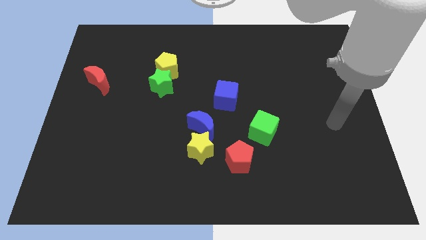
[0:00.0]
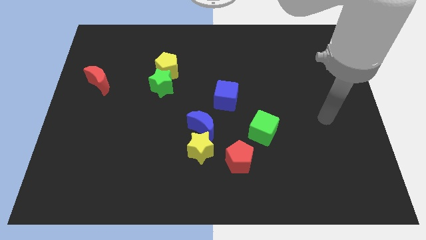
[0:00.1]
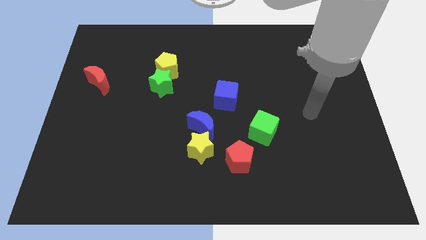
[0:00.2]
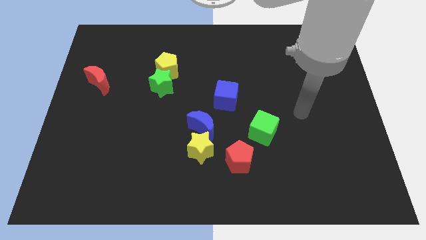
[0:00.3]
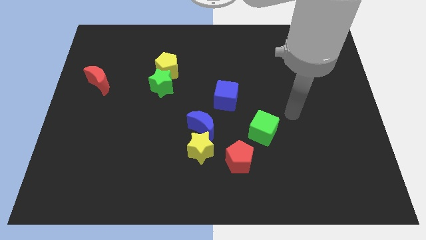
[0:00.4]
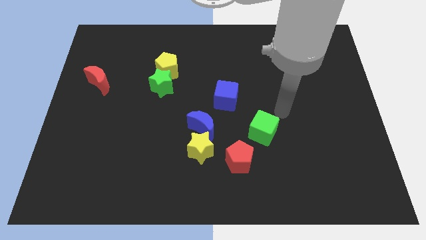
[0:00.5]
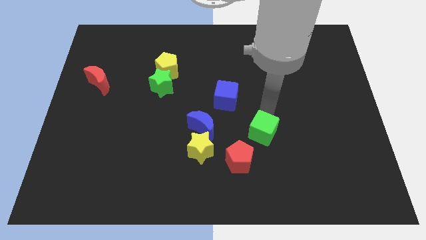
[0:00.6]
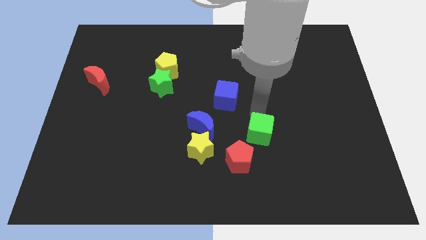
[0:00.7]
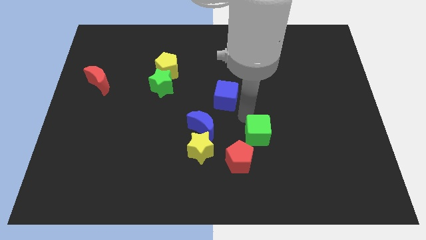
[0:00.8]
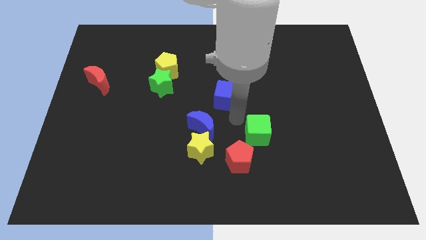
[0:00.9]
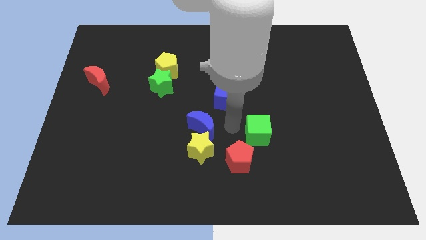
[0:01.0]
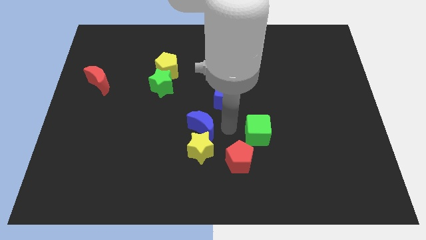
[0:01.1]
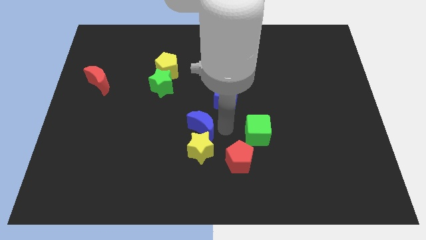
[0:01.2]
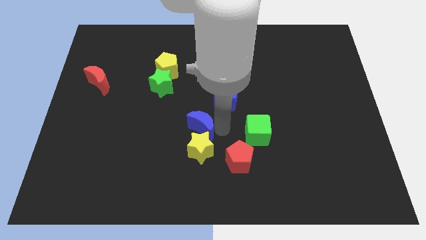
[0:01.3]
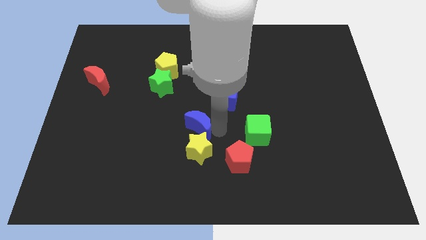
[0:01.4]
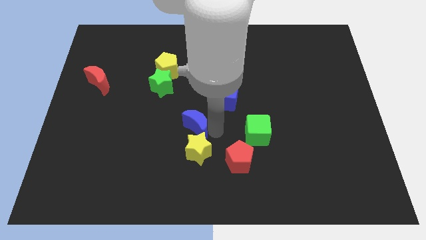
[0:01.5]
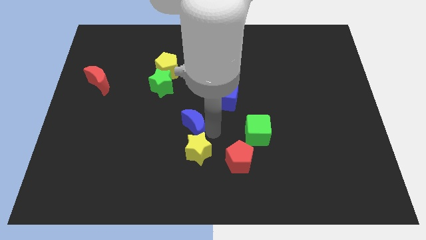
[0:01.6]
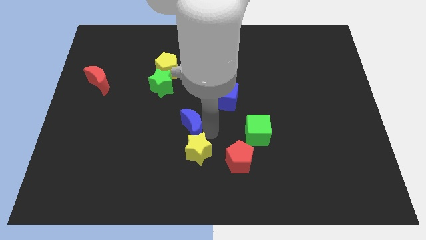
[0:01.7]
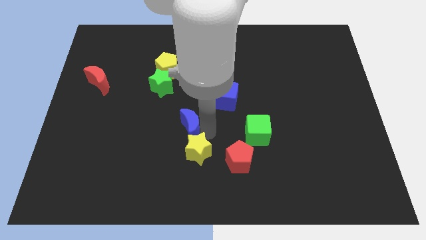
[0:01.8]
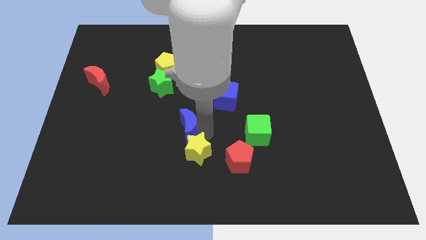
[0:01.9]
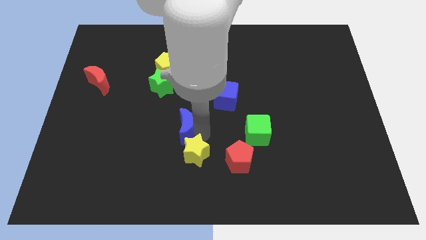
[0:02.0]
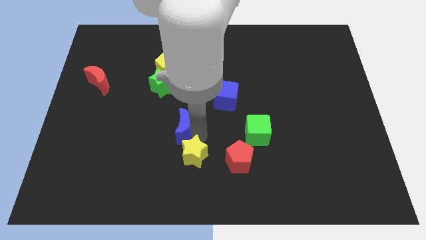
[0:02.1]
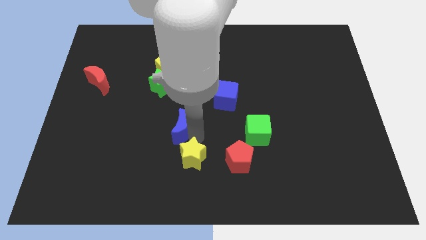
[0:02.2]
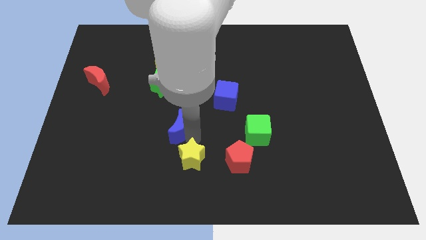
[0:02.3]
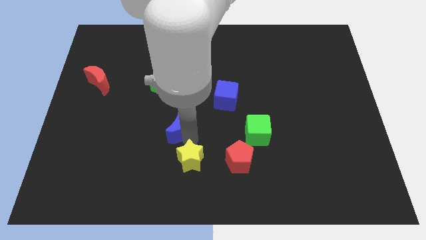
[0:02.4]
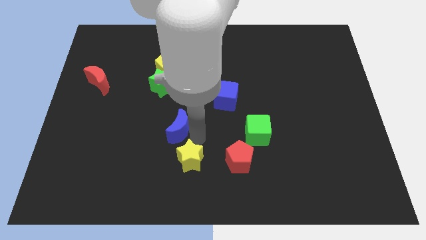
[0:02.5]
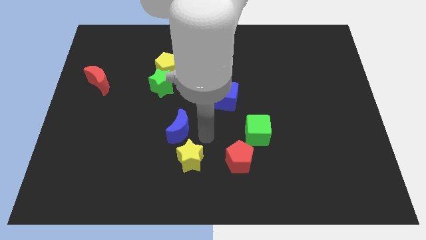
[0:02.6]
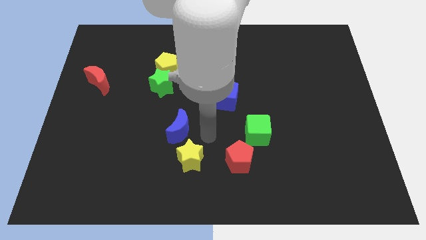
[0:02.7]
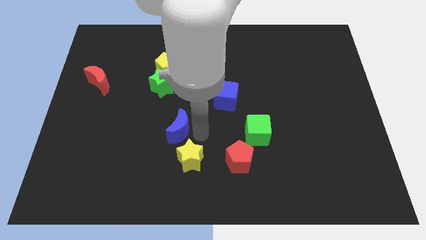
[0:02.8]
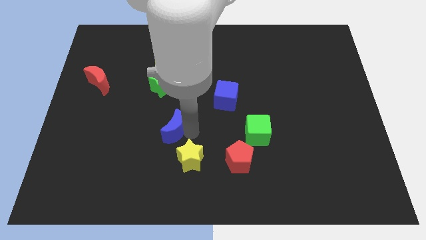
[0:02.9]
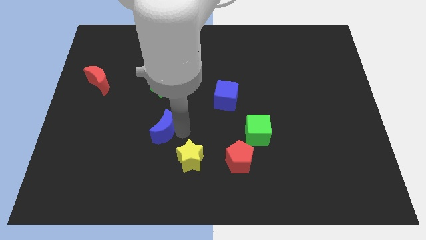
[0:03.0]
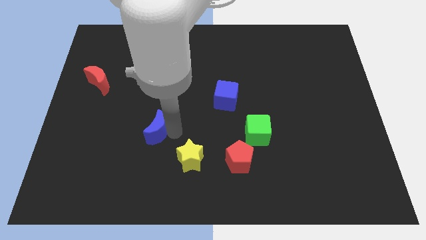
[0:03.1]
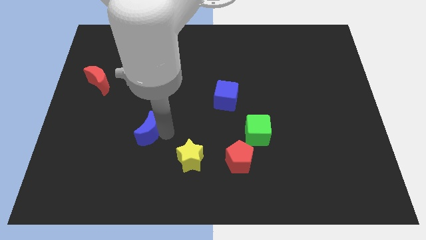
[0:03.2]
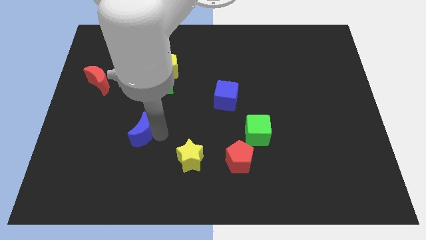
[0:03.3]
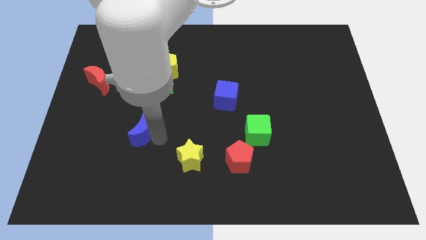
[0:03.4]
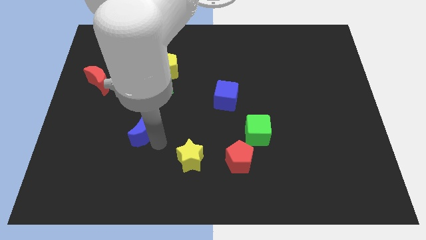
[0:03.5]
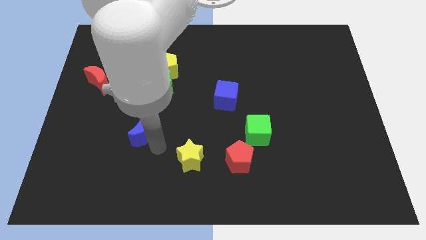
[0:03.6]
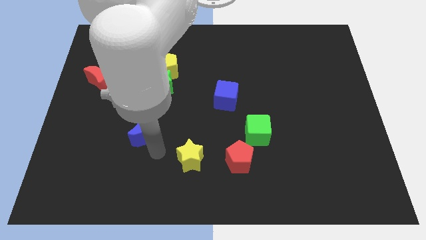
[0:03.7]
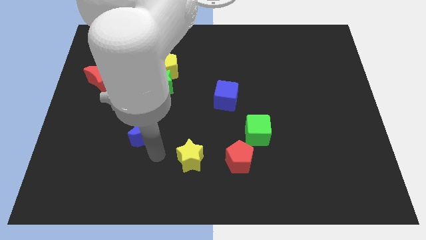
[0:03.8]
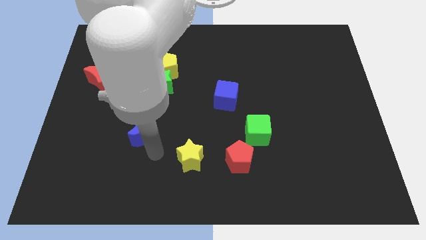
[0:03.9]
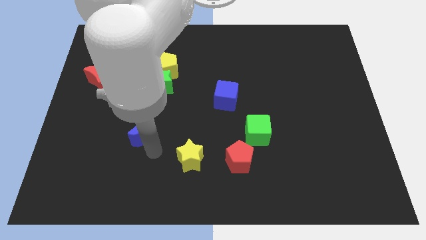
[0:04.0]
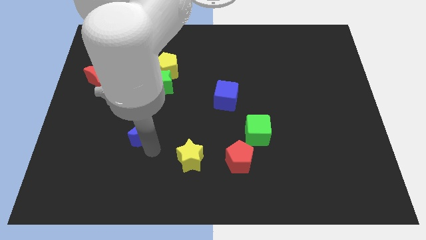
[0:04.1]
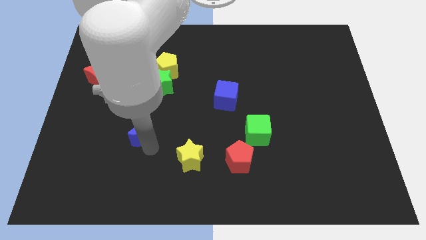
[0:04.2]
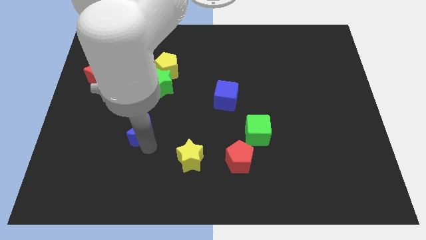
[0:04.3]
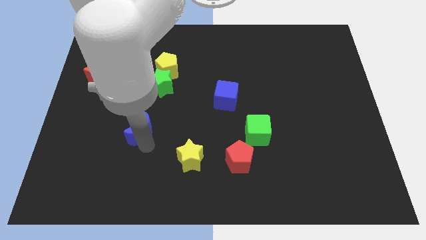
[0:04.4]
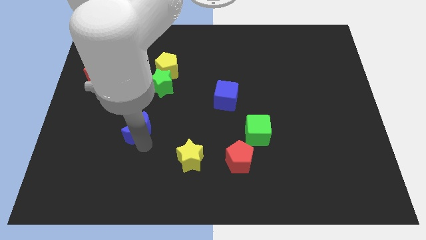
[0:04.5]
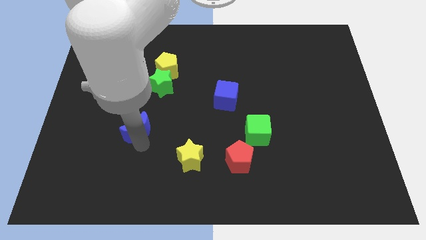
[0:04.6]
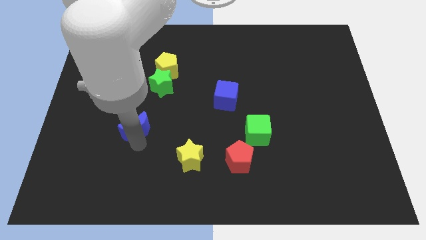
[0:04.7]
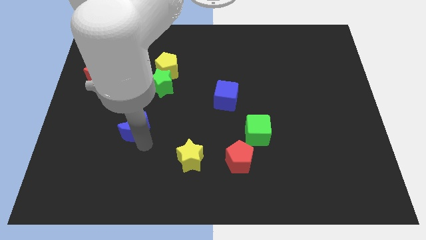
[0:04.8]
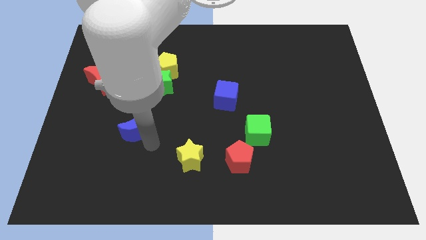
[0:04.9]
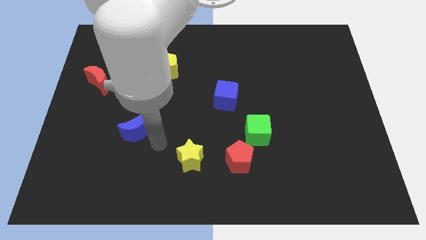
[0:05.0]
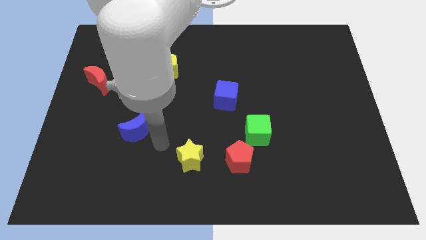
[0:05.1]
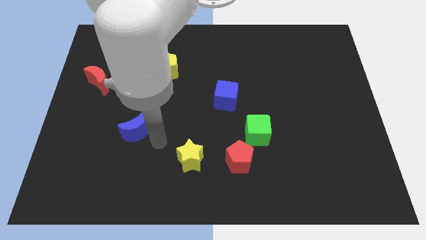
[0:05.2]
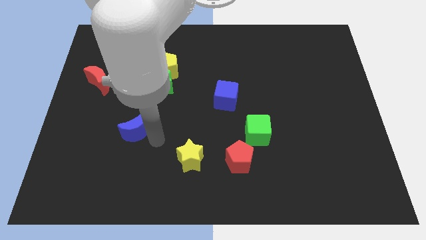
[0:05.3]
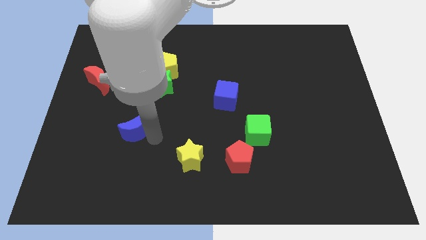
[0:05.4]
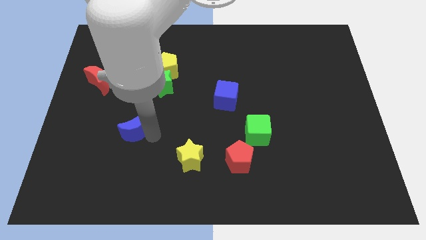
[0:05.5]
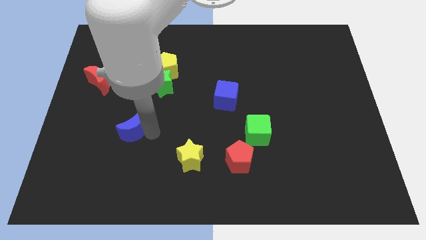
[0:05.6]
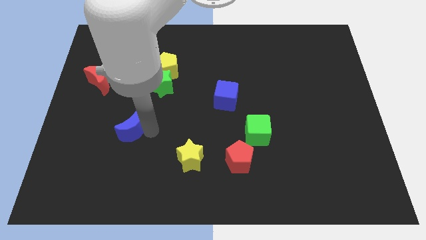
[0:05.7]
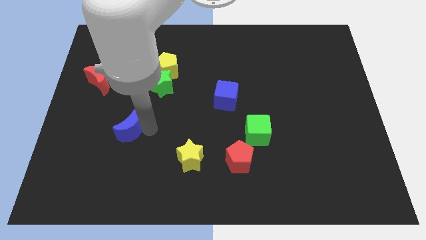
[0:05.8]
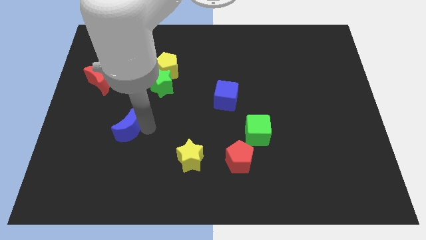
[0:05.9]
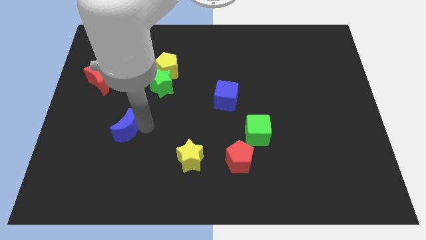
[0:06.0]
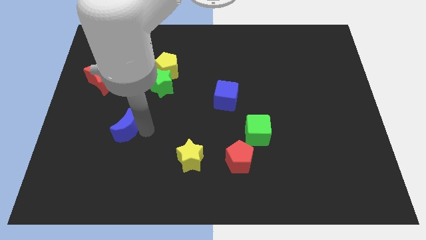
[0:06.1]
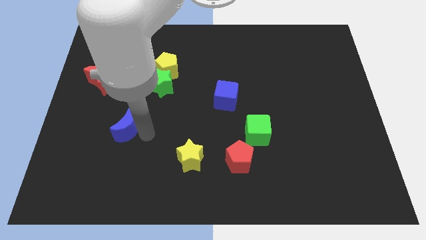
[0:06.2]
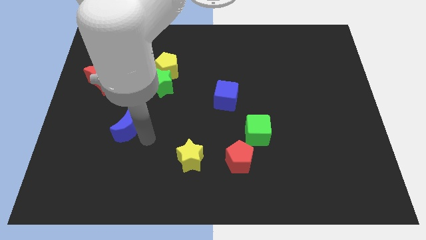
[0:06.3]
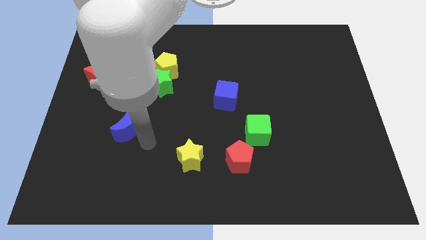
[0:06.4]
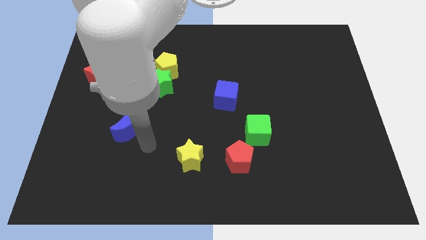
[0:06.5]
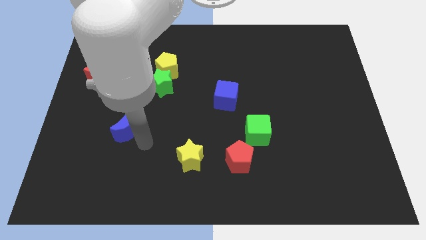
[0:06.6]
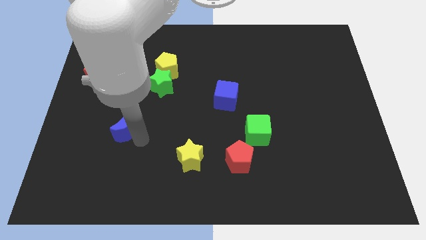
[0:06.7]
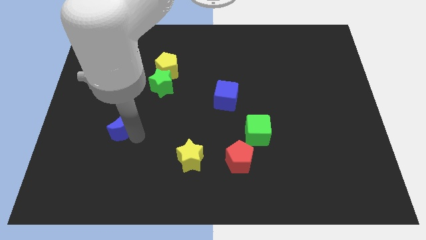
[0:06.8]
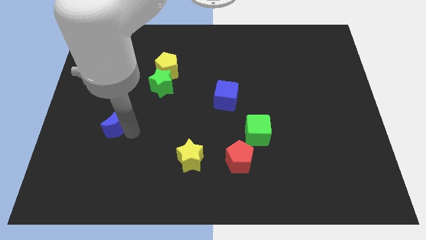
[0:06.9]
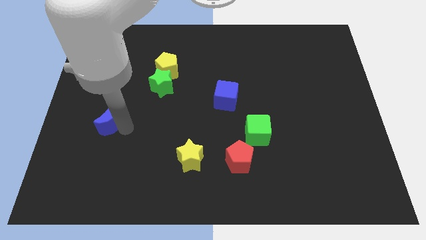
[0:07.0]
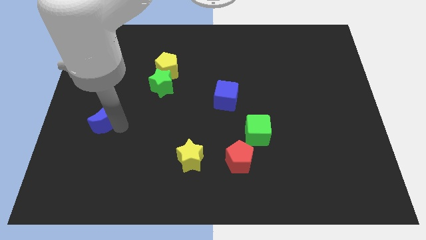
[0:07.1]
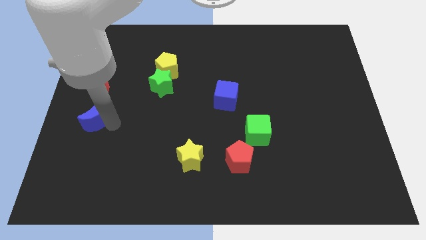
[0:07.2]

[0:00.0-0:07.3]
slide the blue moon to the left side of the board
